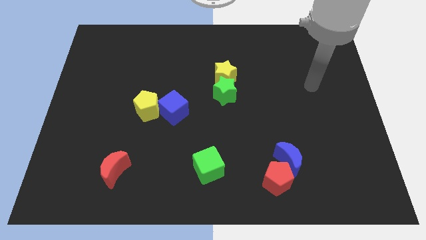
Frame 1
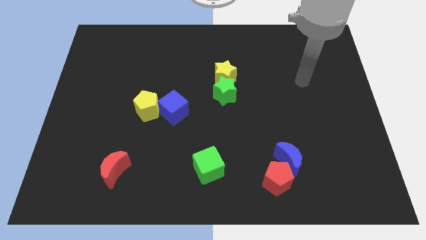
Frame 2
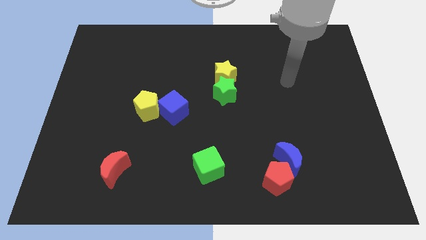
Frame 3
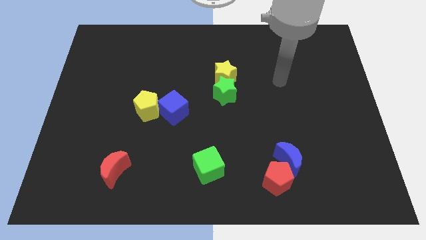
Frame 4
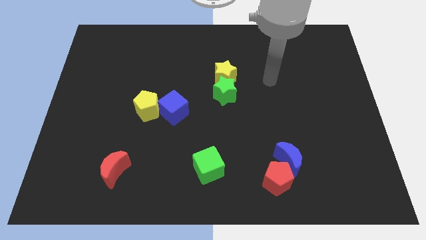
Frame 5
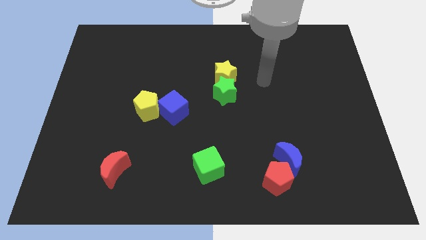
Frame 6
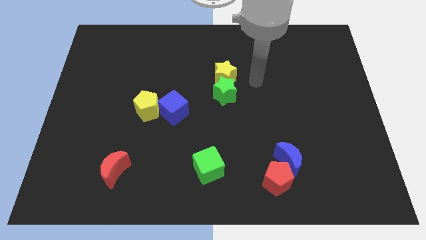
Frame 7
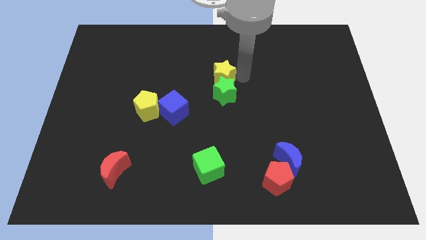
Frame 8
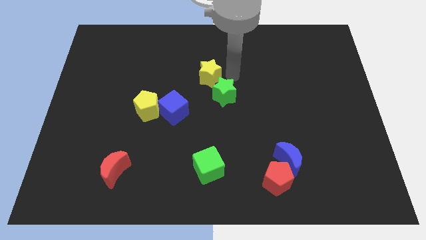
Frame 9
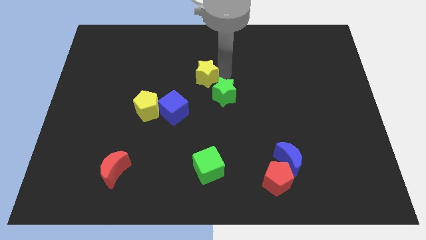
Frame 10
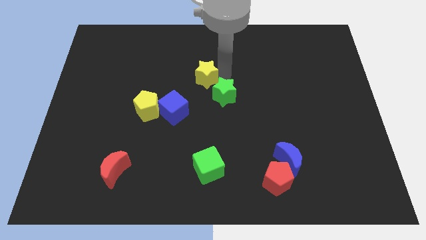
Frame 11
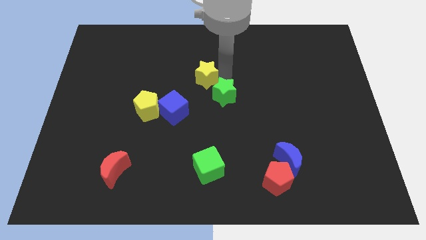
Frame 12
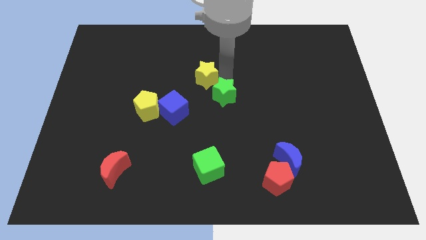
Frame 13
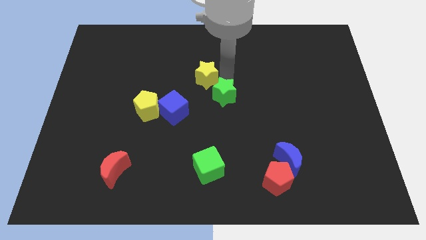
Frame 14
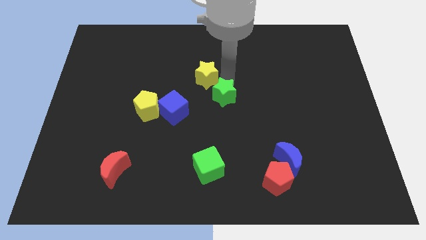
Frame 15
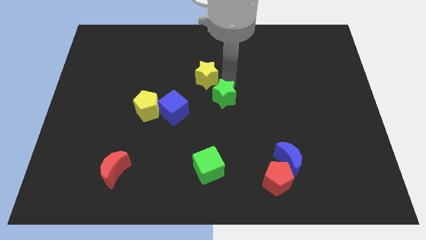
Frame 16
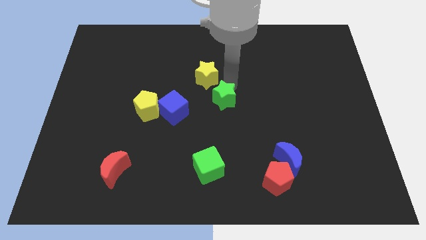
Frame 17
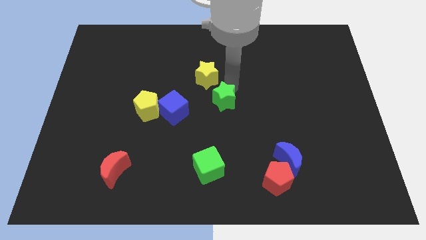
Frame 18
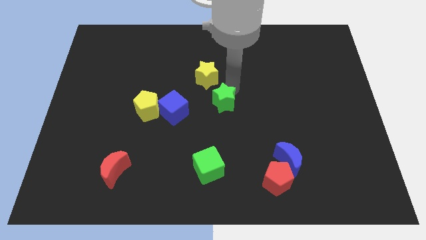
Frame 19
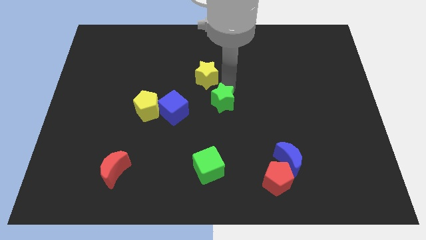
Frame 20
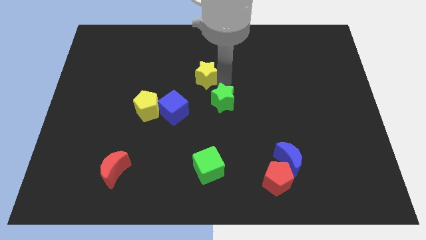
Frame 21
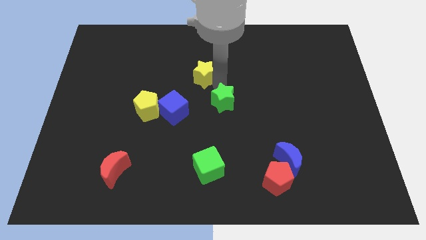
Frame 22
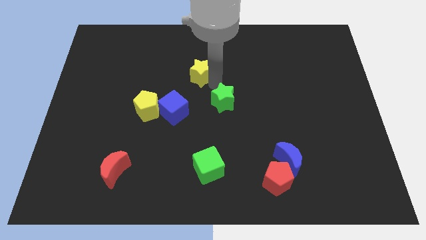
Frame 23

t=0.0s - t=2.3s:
separate the green star from the yellow star

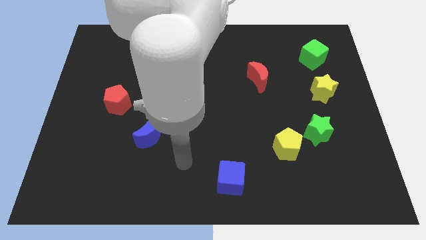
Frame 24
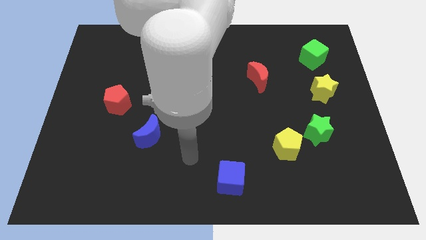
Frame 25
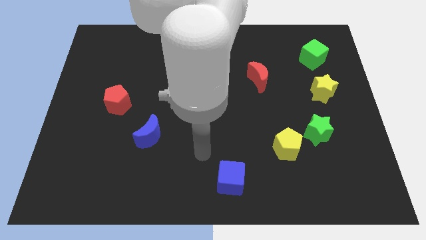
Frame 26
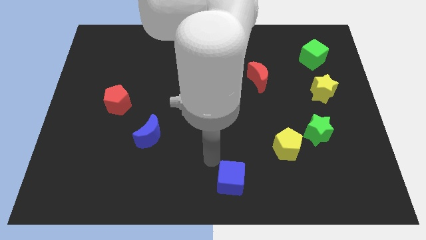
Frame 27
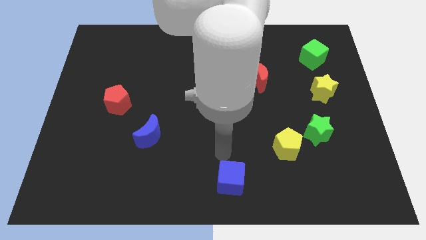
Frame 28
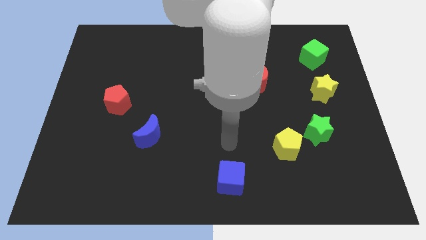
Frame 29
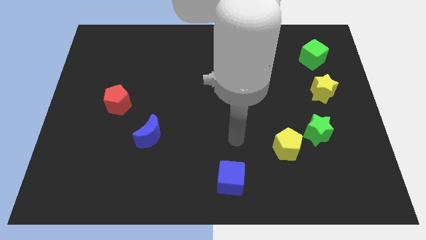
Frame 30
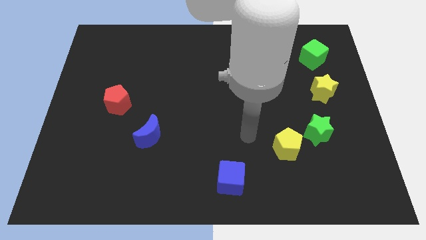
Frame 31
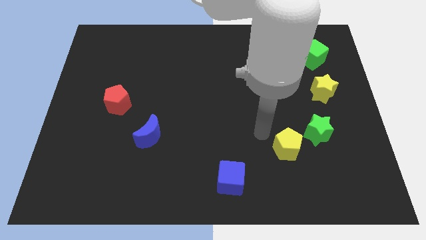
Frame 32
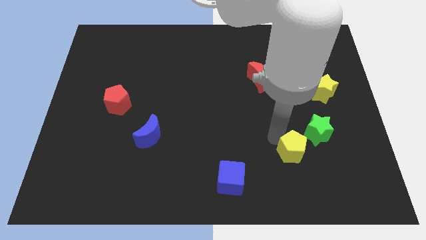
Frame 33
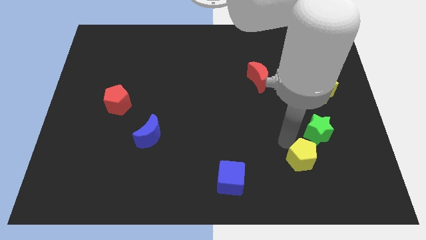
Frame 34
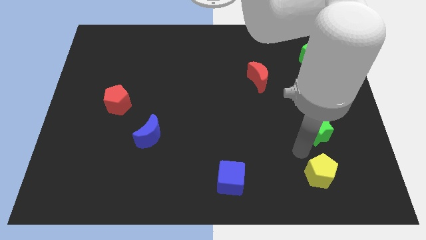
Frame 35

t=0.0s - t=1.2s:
separate the green star from the yellow pentagon

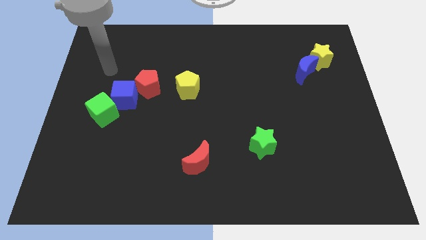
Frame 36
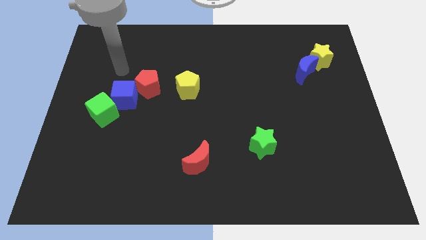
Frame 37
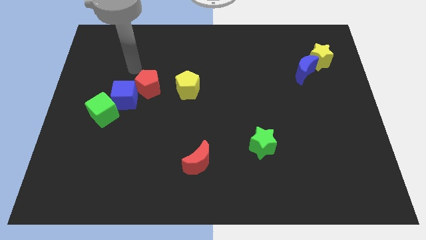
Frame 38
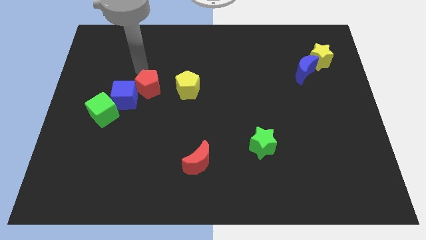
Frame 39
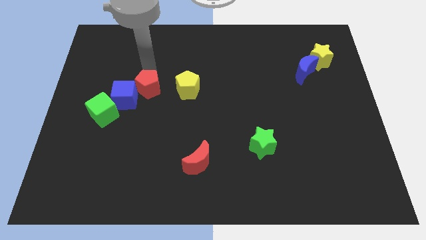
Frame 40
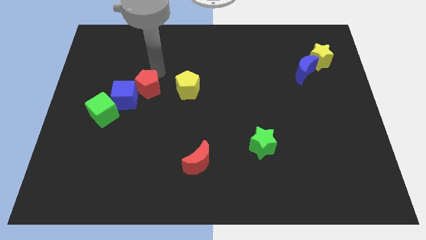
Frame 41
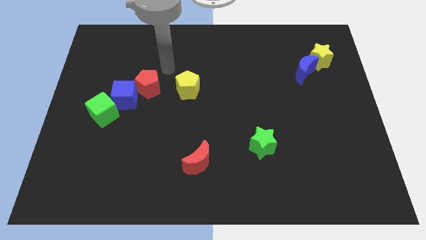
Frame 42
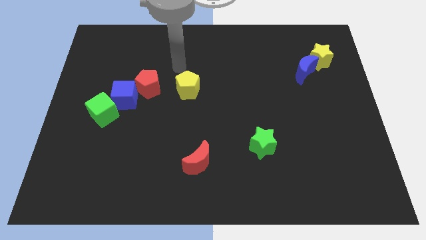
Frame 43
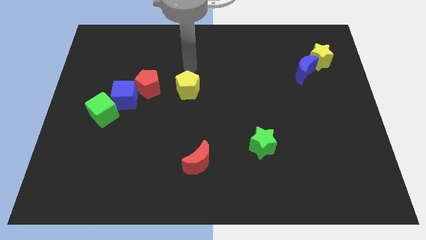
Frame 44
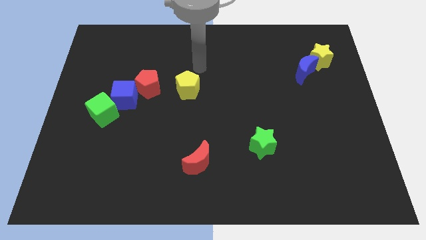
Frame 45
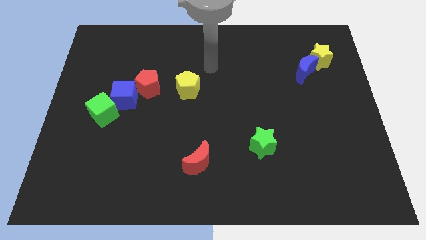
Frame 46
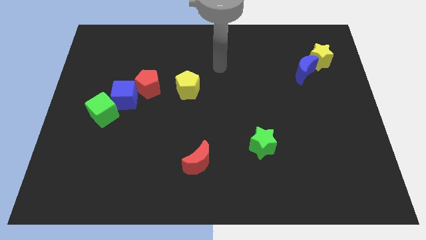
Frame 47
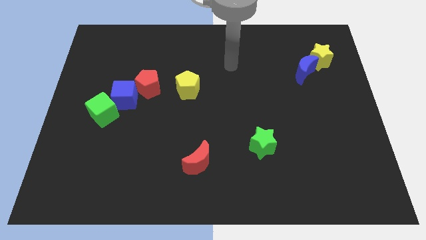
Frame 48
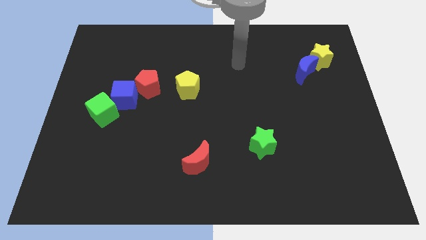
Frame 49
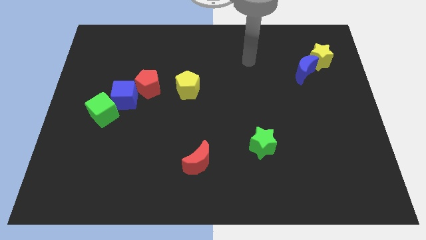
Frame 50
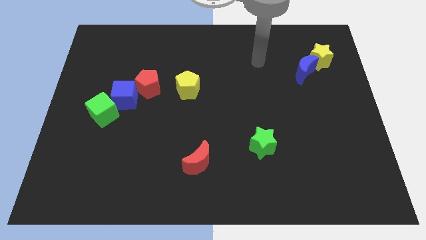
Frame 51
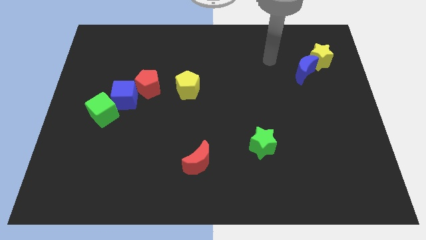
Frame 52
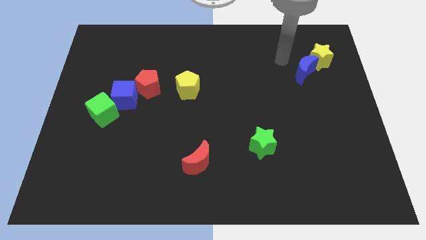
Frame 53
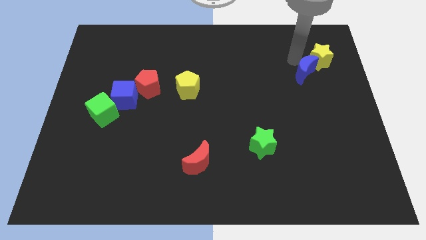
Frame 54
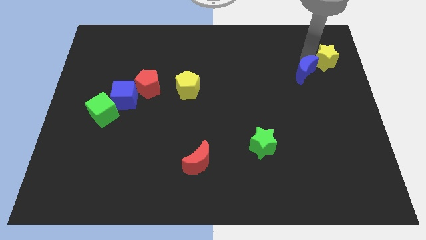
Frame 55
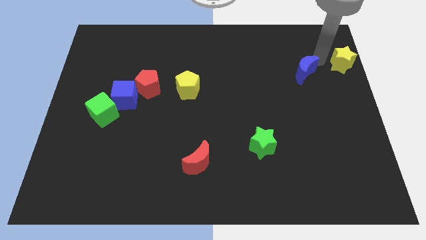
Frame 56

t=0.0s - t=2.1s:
move the blue moon away from the yellow star

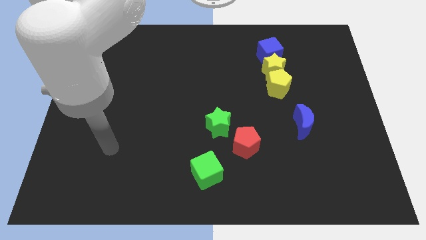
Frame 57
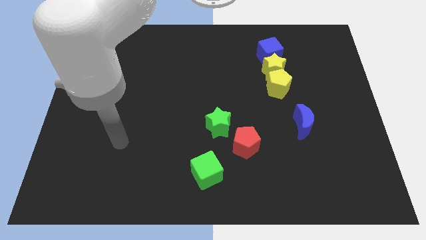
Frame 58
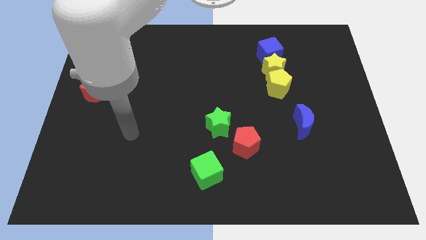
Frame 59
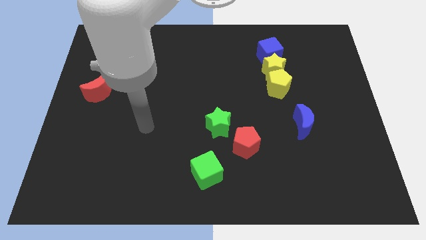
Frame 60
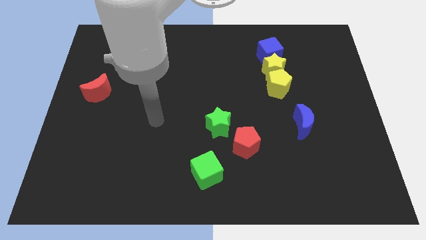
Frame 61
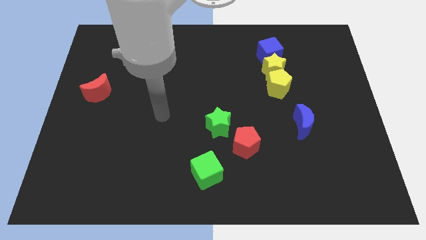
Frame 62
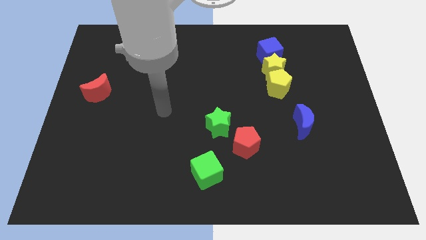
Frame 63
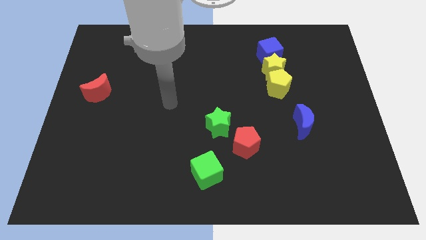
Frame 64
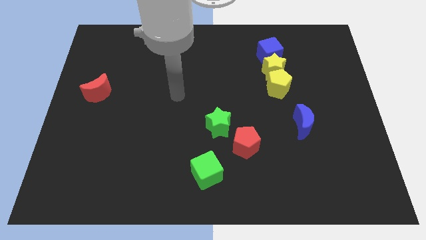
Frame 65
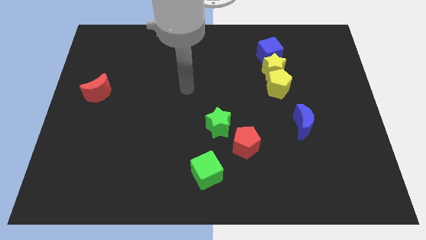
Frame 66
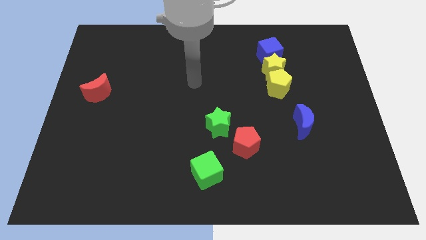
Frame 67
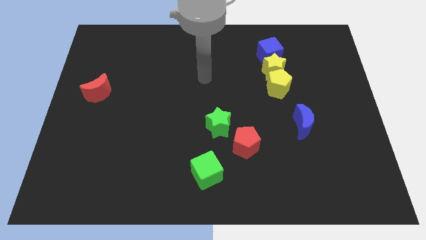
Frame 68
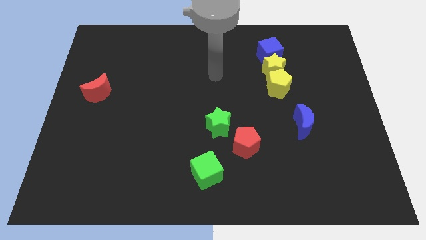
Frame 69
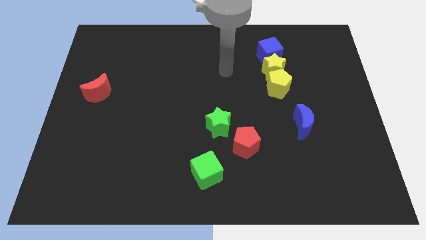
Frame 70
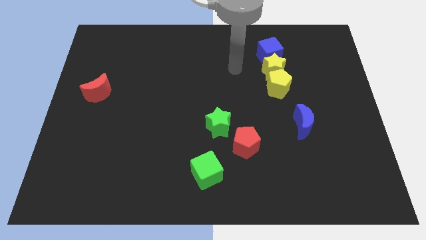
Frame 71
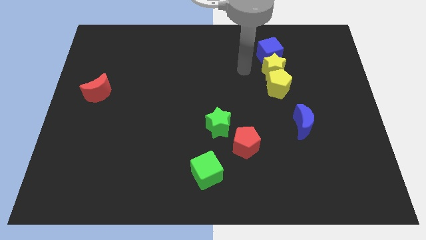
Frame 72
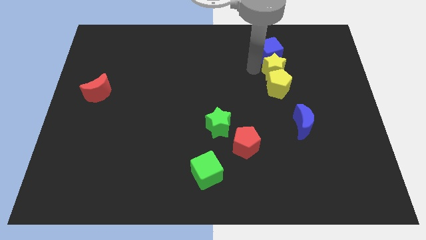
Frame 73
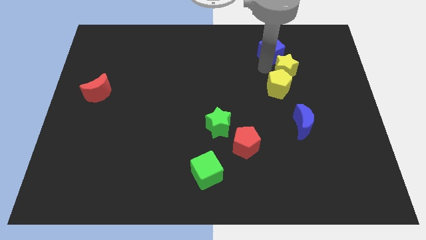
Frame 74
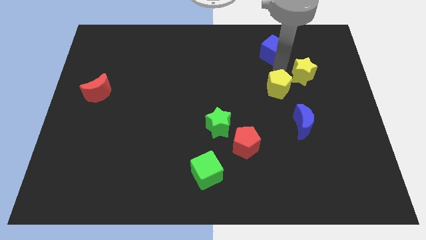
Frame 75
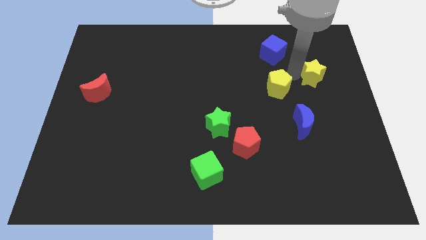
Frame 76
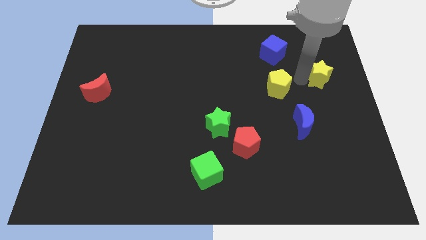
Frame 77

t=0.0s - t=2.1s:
separate the yellow pentagon from the yellow star

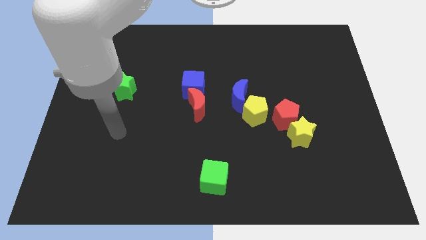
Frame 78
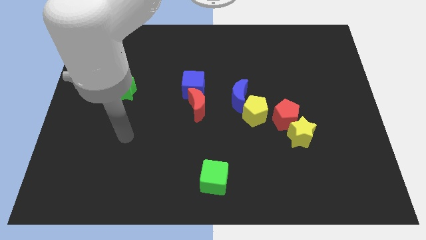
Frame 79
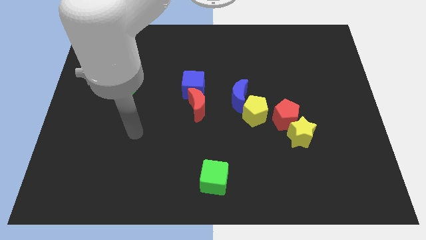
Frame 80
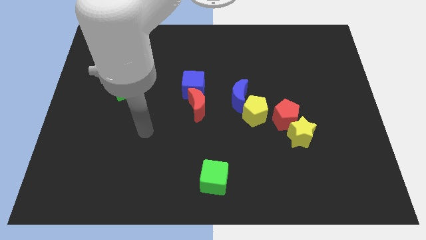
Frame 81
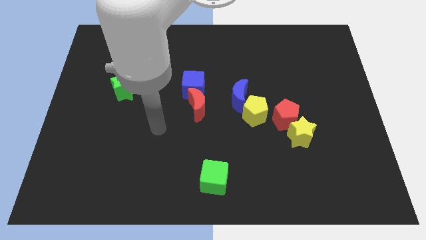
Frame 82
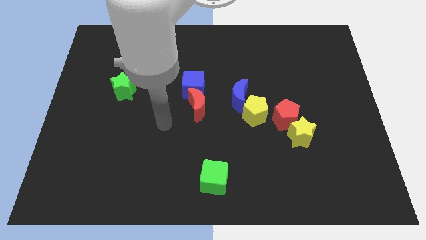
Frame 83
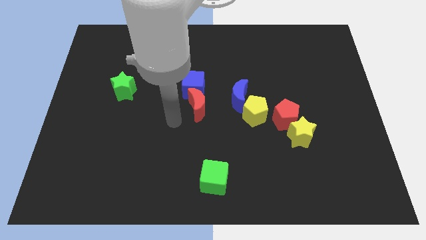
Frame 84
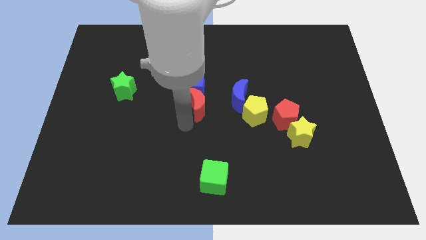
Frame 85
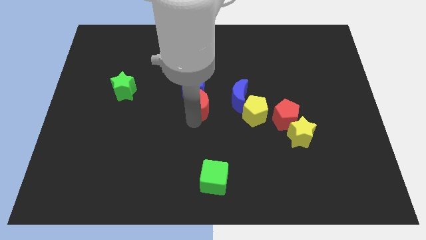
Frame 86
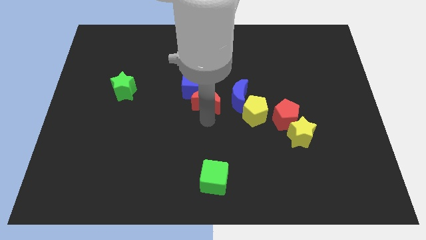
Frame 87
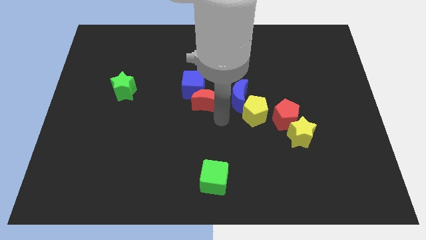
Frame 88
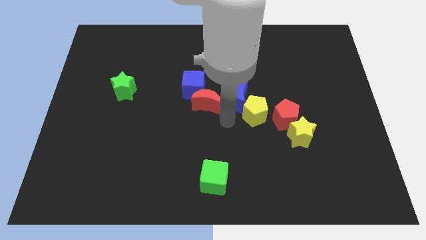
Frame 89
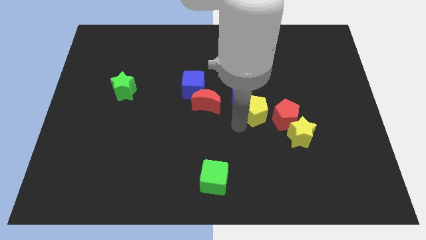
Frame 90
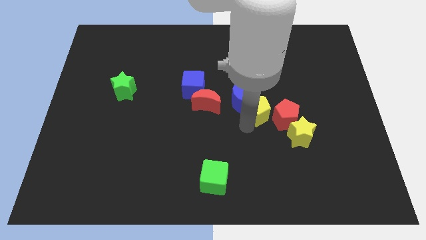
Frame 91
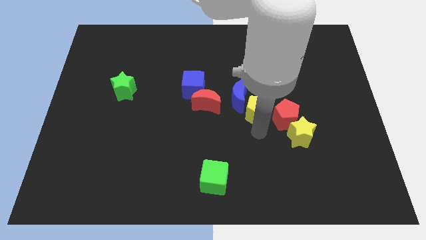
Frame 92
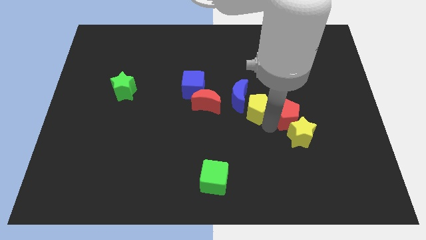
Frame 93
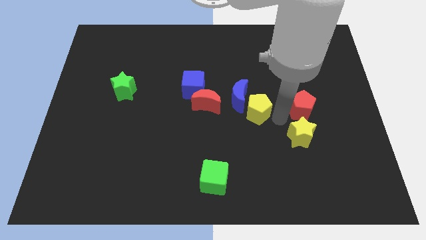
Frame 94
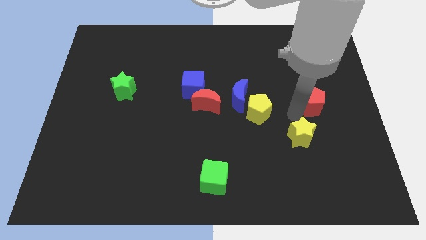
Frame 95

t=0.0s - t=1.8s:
separate the yellow star from the red pentagon
